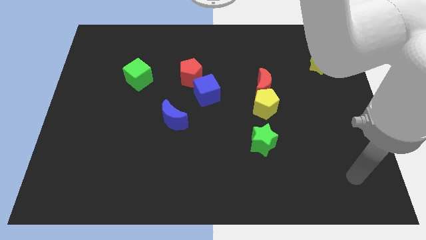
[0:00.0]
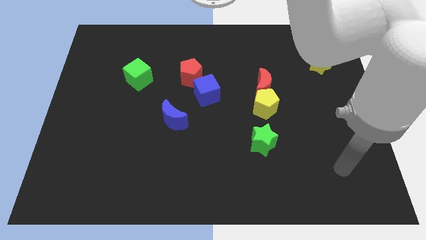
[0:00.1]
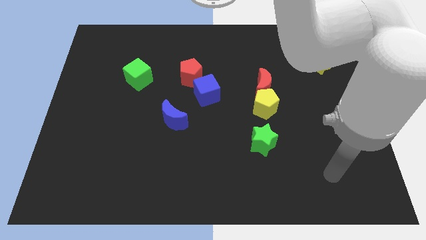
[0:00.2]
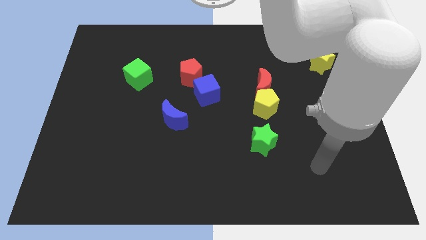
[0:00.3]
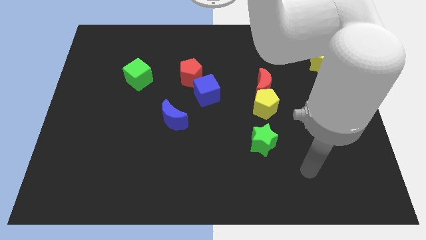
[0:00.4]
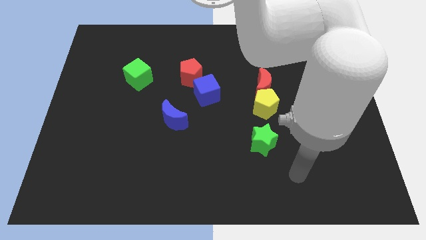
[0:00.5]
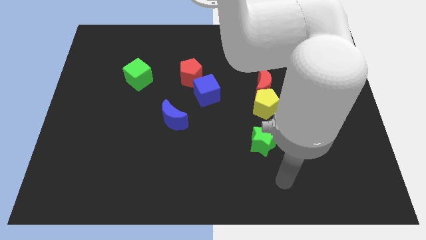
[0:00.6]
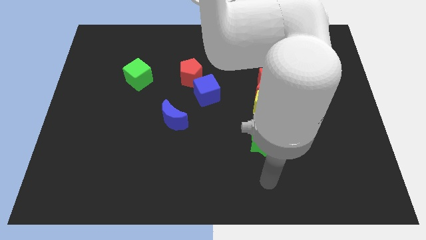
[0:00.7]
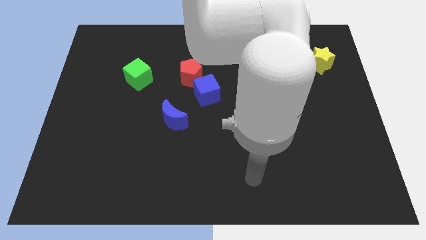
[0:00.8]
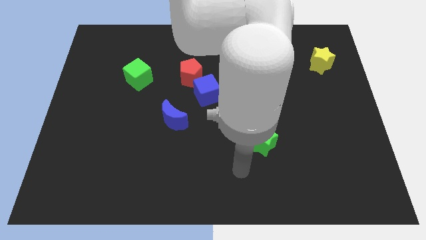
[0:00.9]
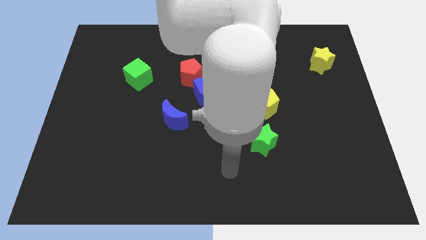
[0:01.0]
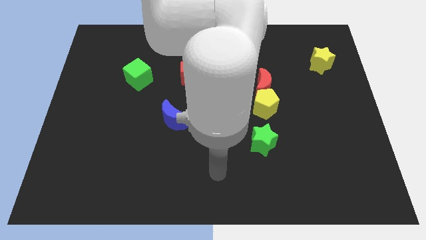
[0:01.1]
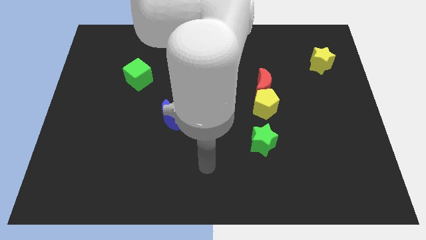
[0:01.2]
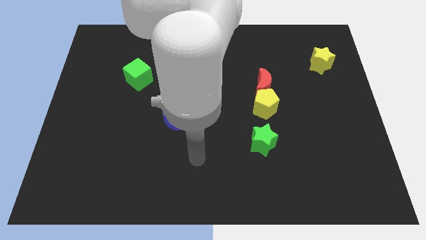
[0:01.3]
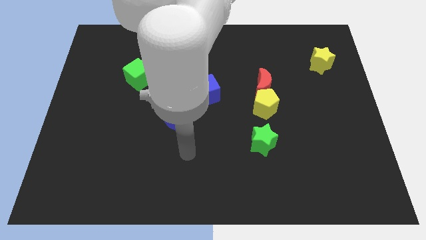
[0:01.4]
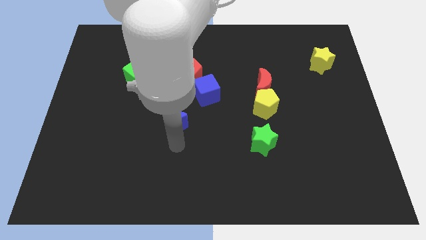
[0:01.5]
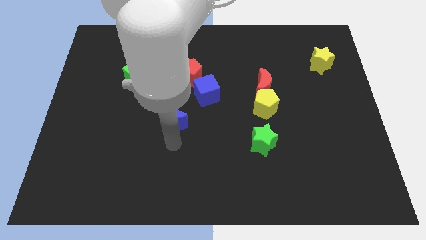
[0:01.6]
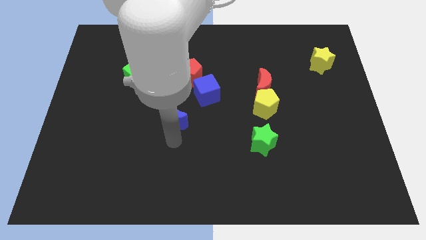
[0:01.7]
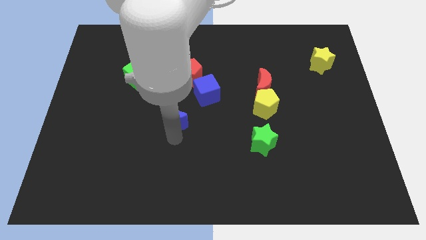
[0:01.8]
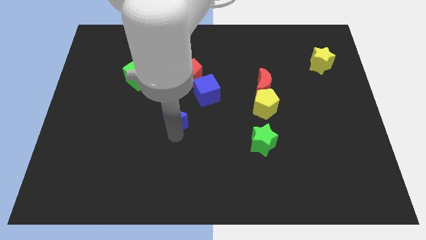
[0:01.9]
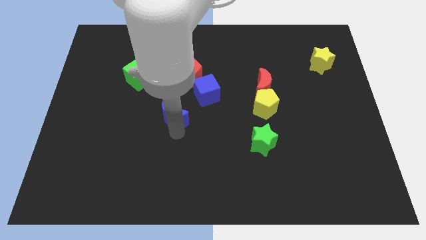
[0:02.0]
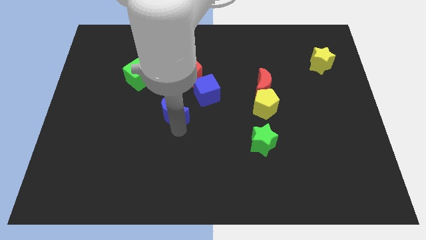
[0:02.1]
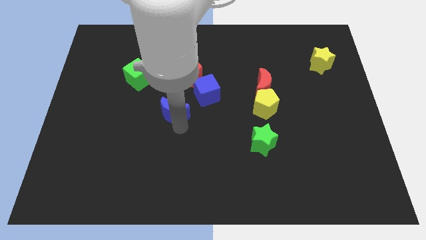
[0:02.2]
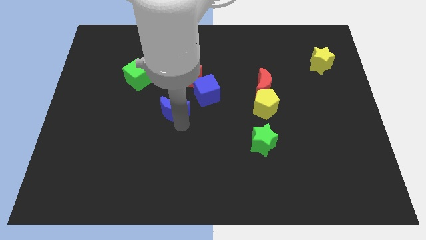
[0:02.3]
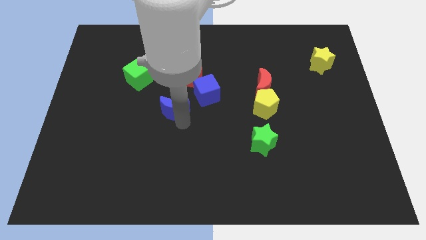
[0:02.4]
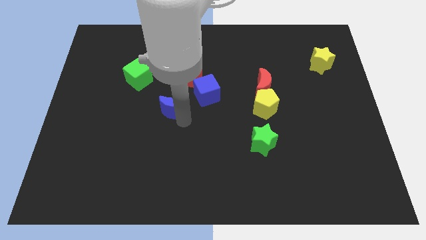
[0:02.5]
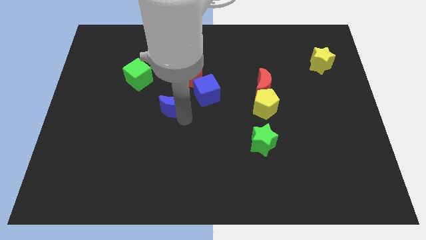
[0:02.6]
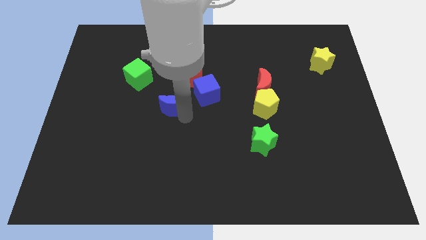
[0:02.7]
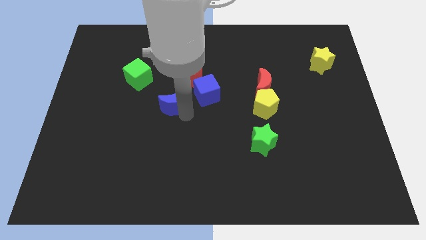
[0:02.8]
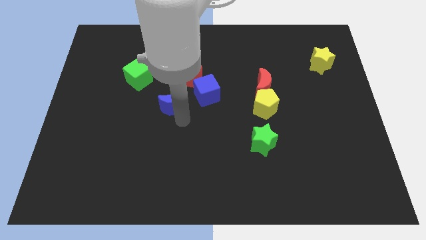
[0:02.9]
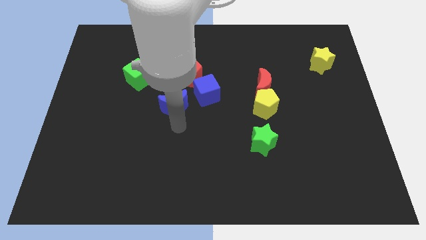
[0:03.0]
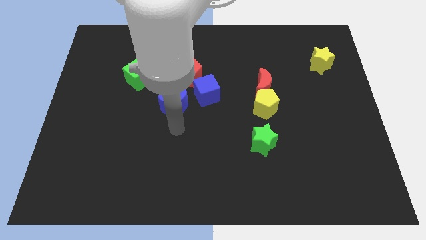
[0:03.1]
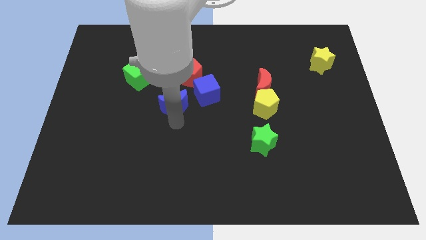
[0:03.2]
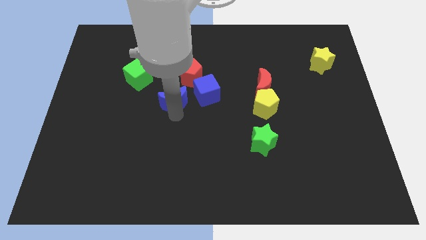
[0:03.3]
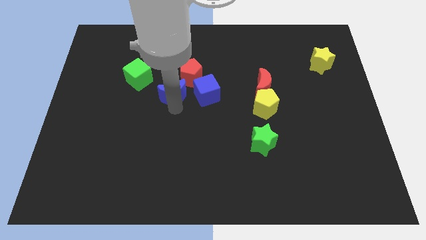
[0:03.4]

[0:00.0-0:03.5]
push the blue moon a little up

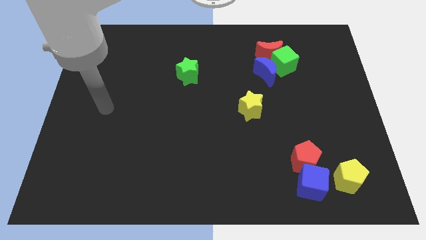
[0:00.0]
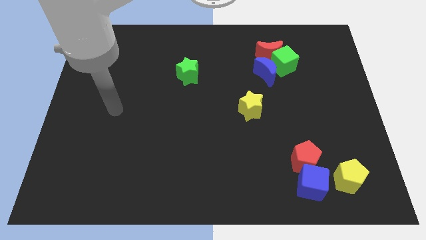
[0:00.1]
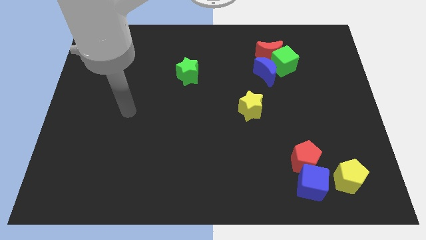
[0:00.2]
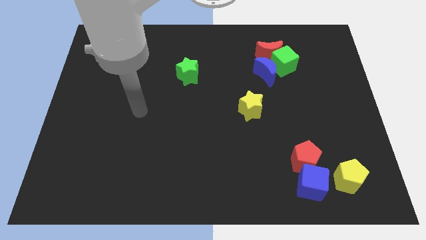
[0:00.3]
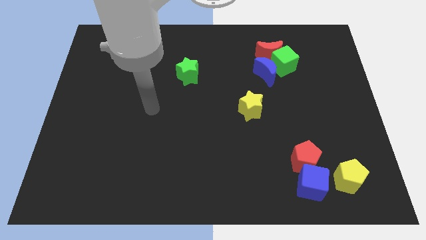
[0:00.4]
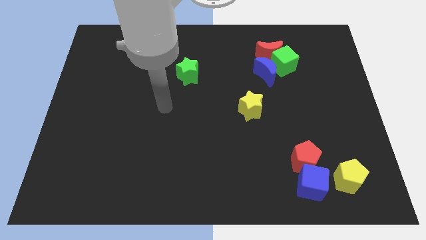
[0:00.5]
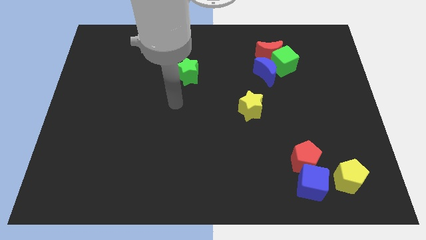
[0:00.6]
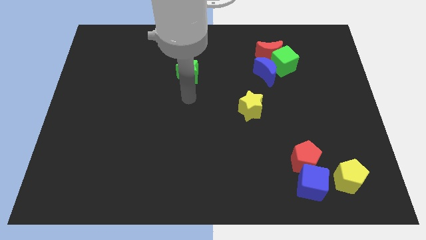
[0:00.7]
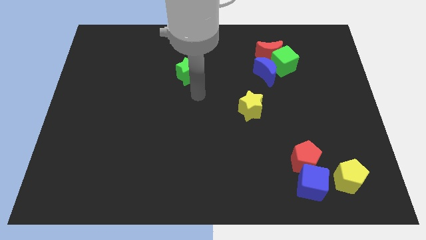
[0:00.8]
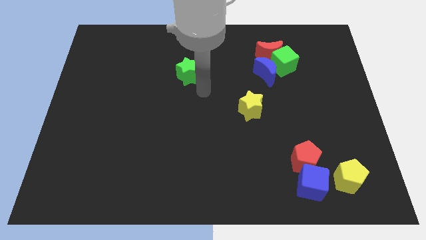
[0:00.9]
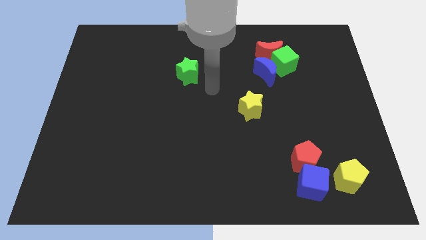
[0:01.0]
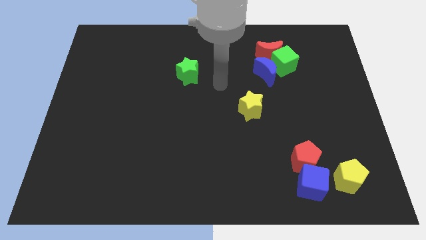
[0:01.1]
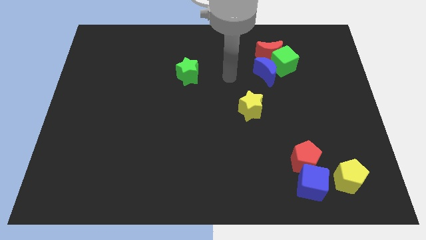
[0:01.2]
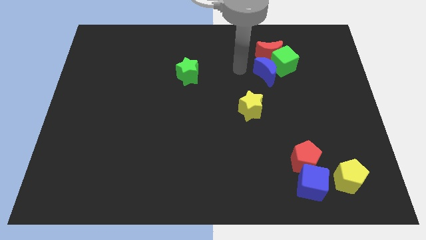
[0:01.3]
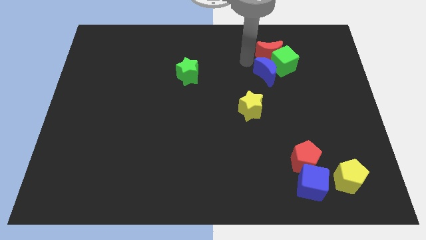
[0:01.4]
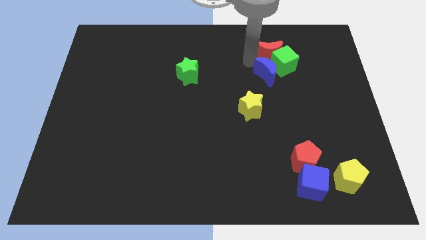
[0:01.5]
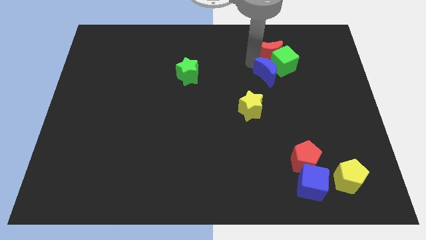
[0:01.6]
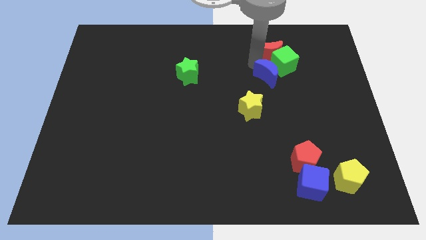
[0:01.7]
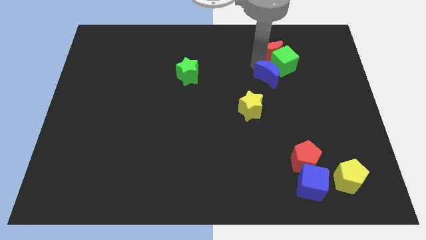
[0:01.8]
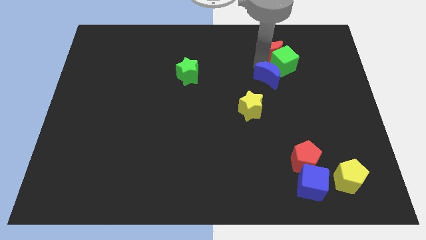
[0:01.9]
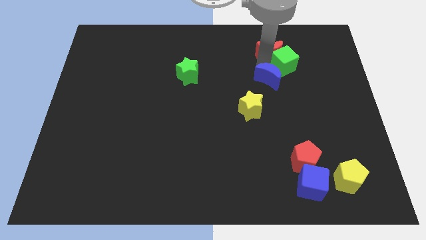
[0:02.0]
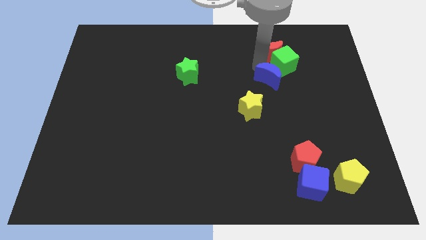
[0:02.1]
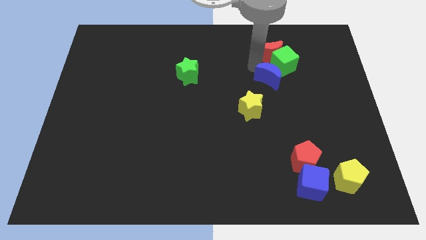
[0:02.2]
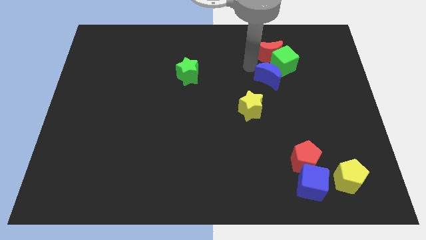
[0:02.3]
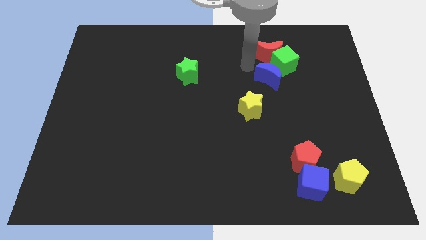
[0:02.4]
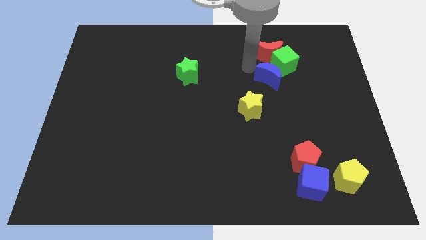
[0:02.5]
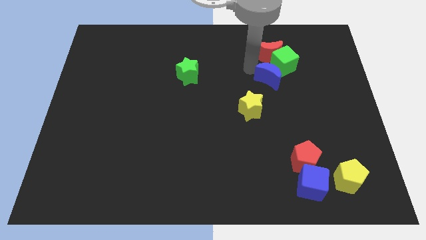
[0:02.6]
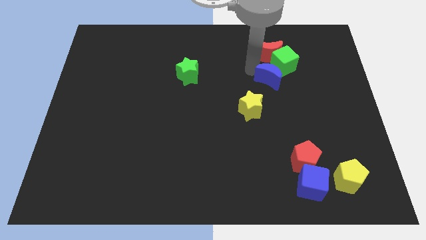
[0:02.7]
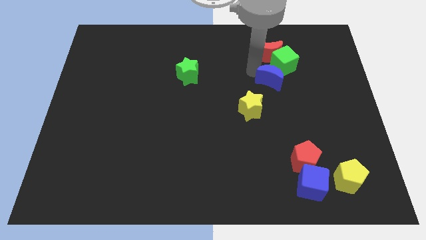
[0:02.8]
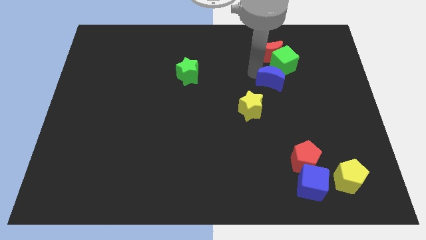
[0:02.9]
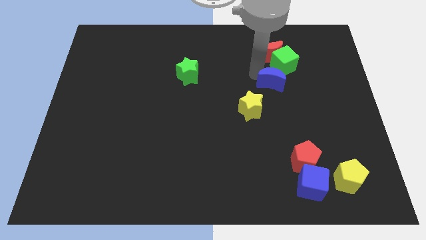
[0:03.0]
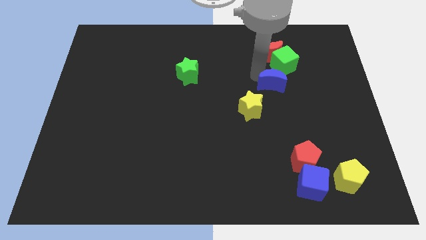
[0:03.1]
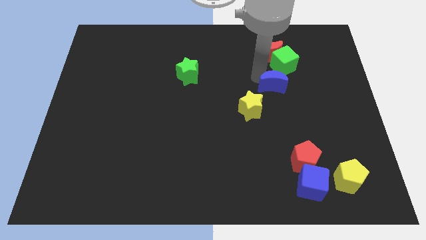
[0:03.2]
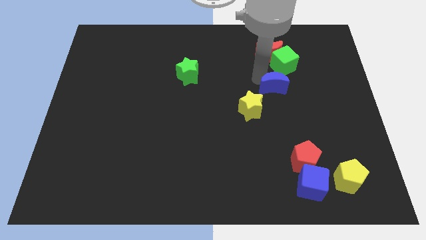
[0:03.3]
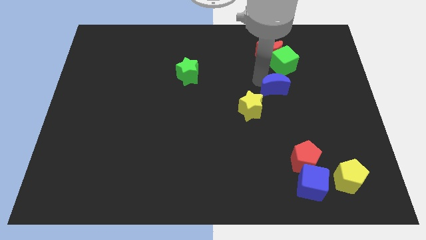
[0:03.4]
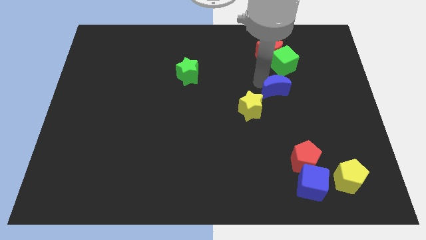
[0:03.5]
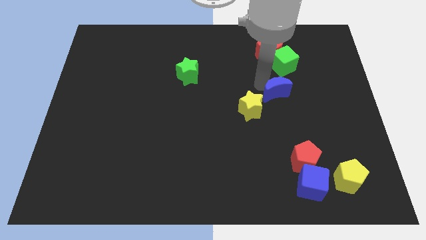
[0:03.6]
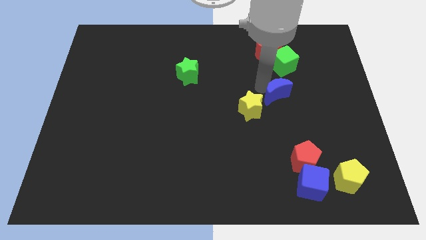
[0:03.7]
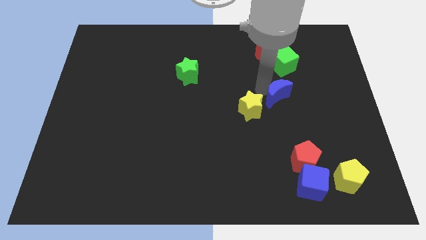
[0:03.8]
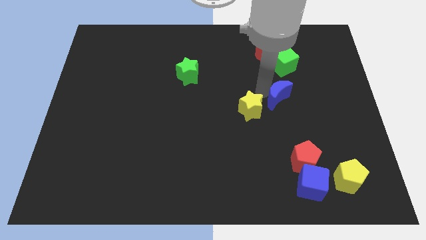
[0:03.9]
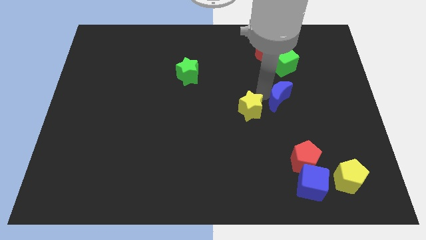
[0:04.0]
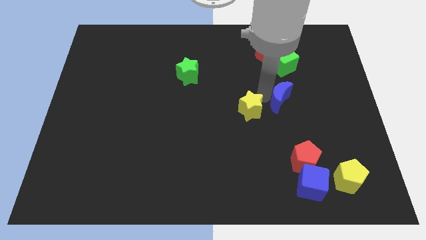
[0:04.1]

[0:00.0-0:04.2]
push the blue moon a little bit down and right
